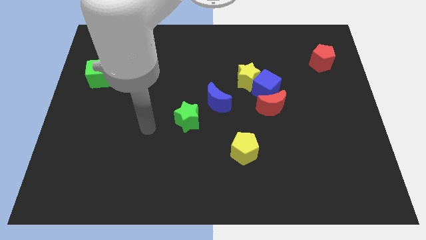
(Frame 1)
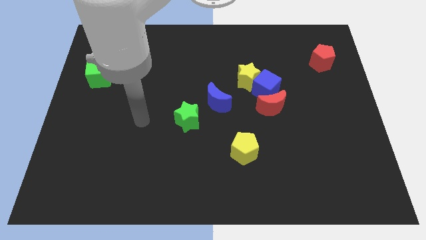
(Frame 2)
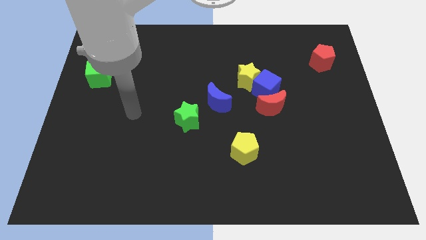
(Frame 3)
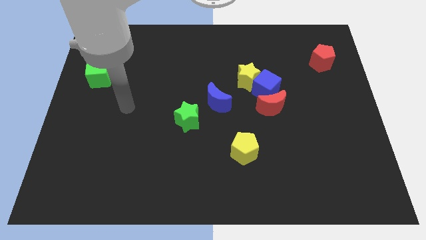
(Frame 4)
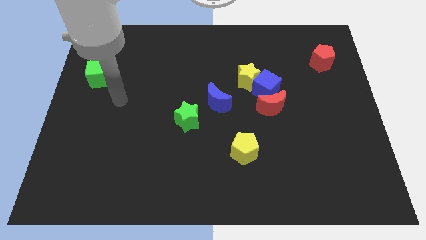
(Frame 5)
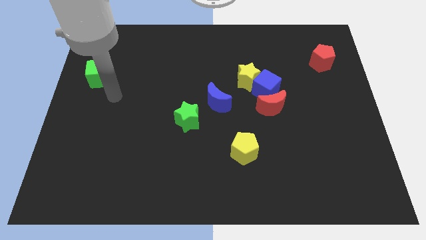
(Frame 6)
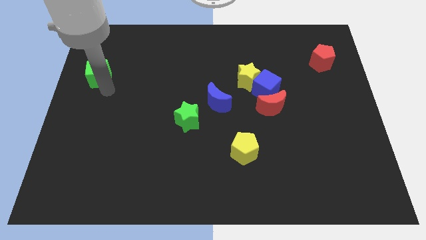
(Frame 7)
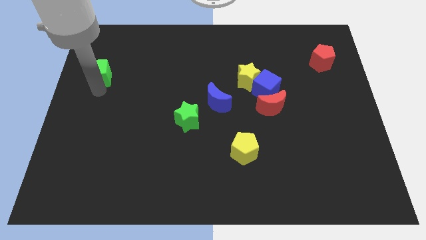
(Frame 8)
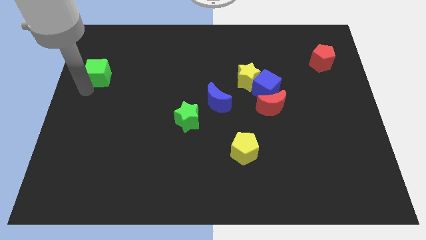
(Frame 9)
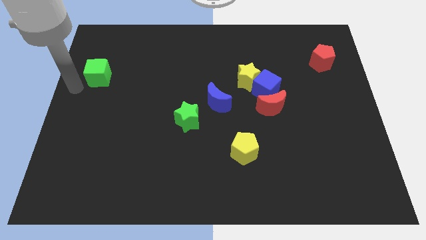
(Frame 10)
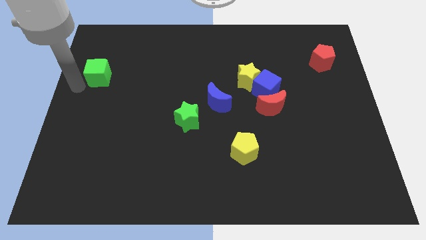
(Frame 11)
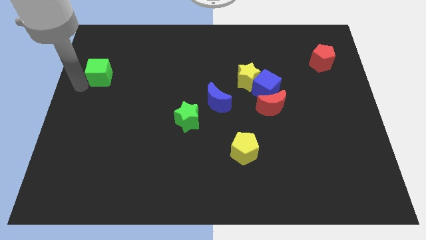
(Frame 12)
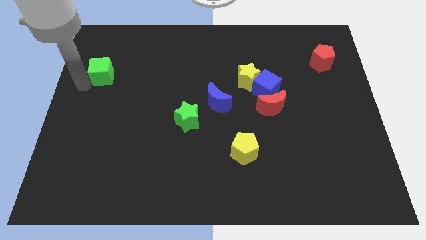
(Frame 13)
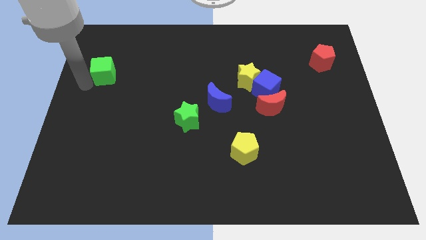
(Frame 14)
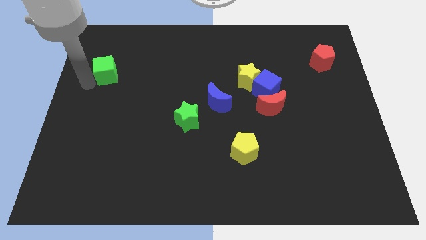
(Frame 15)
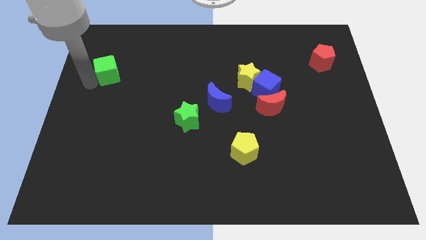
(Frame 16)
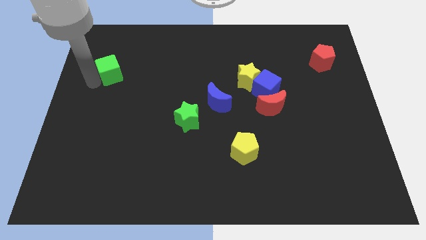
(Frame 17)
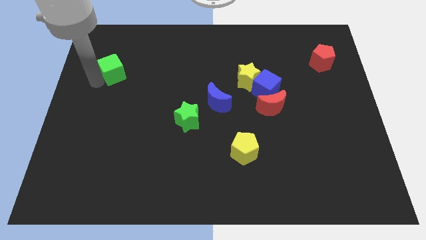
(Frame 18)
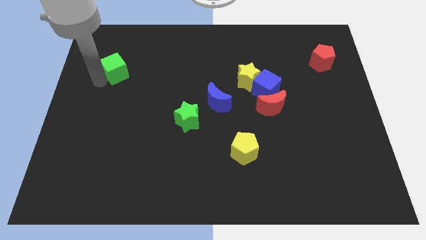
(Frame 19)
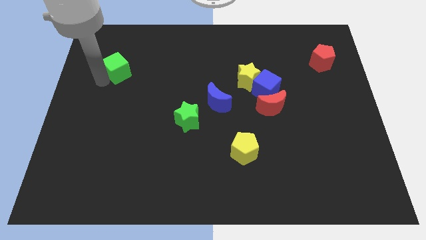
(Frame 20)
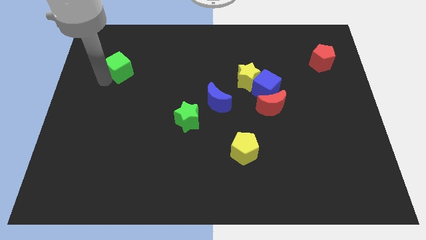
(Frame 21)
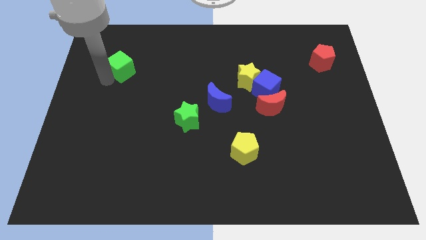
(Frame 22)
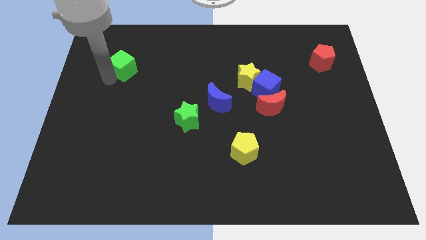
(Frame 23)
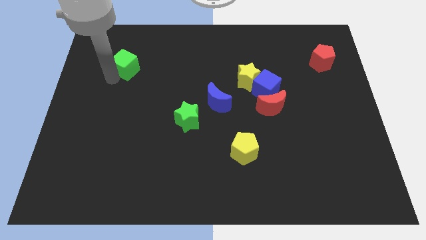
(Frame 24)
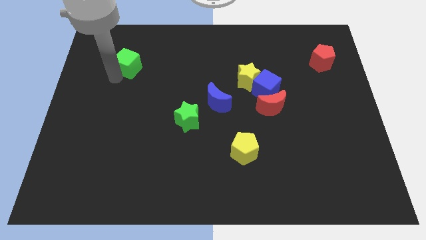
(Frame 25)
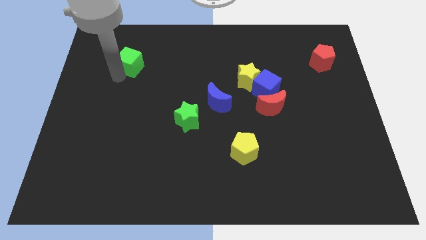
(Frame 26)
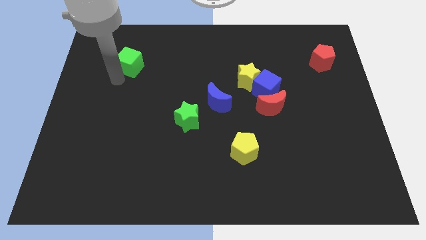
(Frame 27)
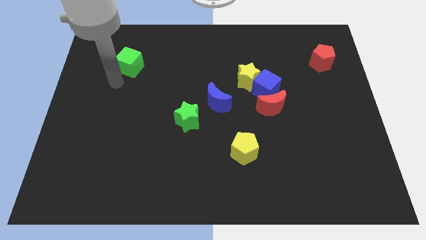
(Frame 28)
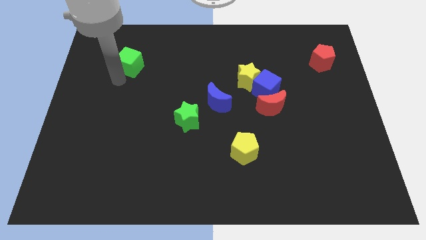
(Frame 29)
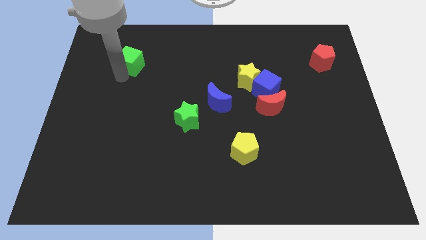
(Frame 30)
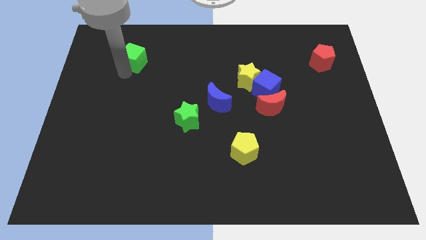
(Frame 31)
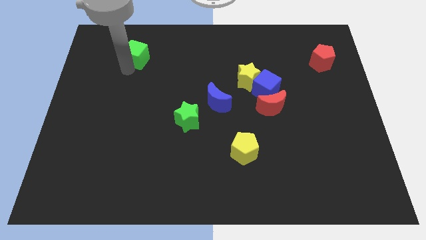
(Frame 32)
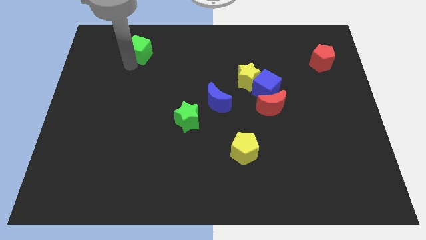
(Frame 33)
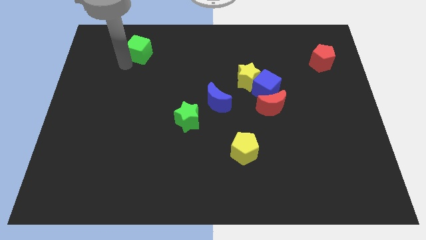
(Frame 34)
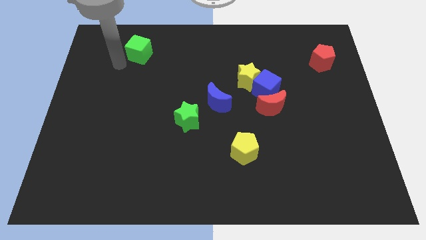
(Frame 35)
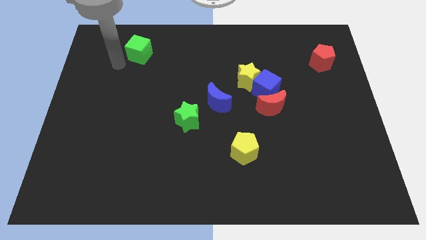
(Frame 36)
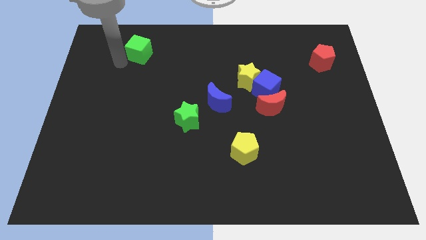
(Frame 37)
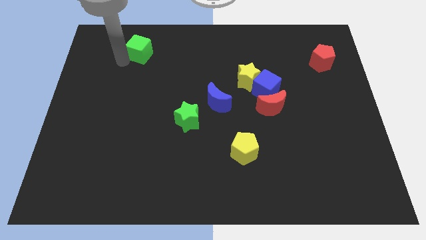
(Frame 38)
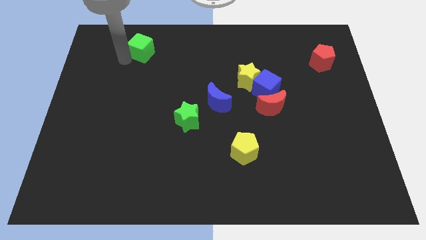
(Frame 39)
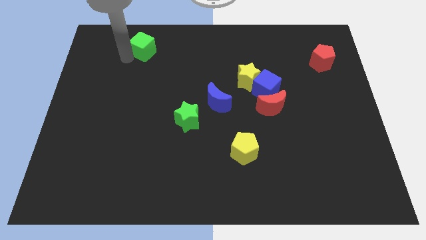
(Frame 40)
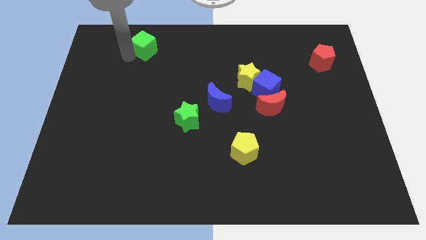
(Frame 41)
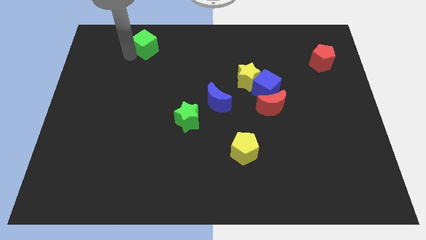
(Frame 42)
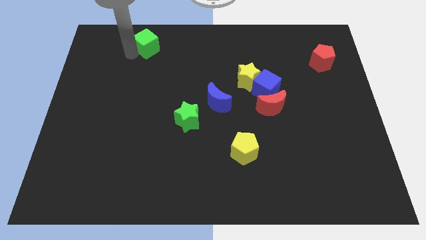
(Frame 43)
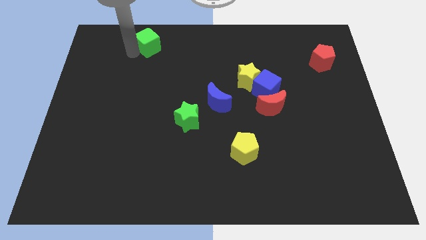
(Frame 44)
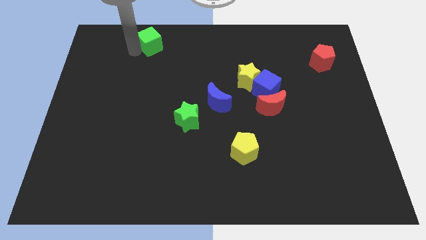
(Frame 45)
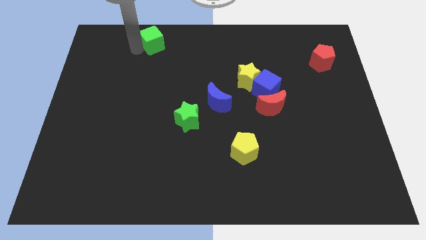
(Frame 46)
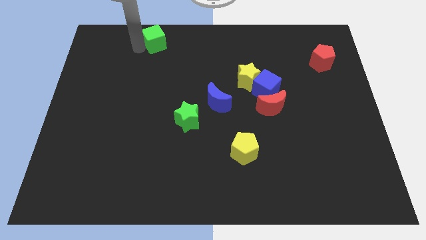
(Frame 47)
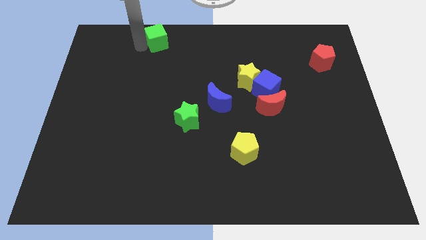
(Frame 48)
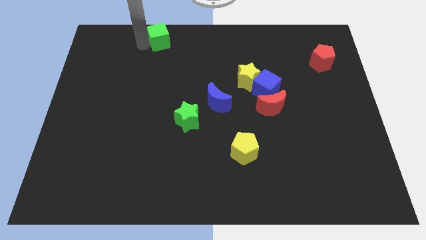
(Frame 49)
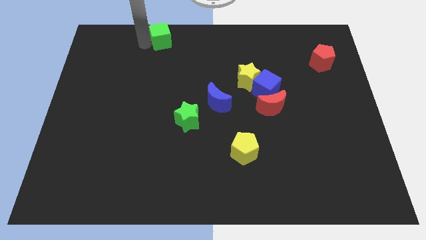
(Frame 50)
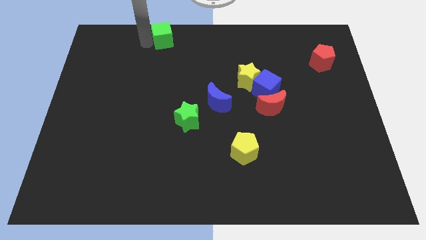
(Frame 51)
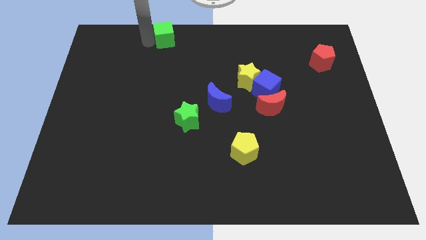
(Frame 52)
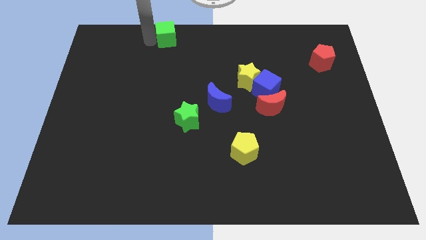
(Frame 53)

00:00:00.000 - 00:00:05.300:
push the green cube to the top
